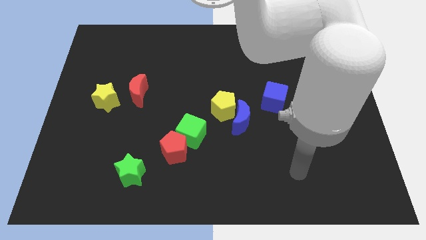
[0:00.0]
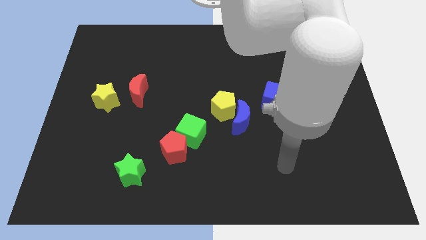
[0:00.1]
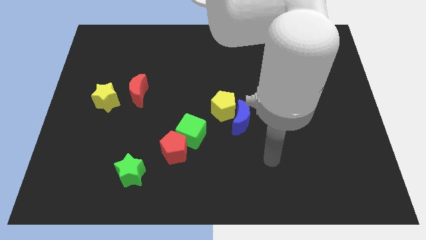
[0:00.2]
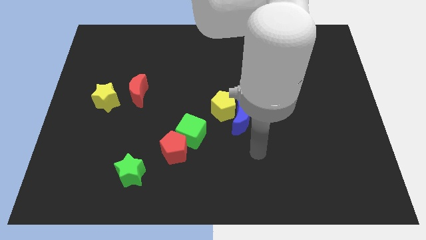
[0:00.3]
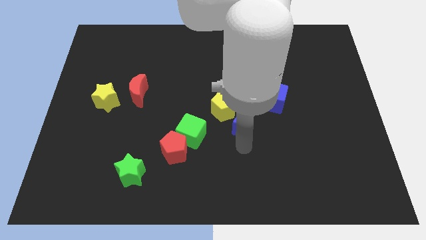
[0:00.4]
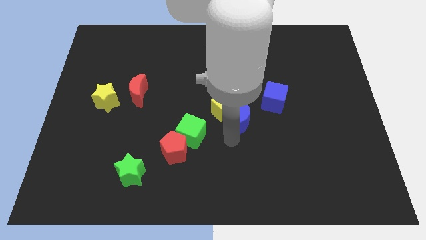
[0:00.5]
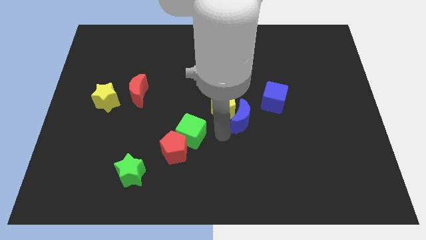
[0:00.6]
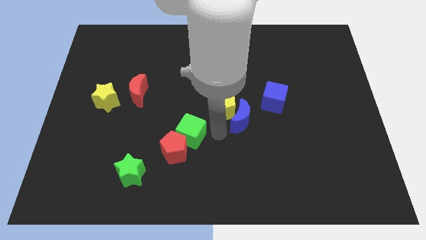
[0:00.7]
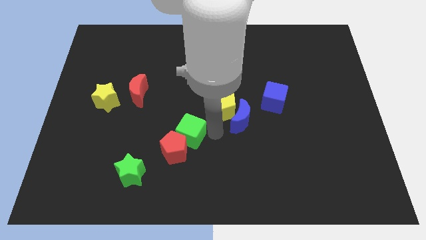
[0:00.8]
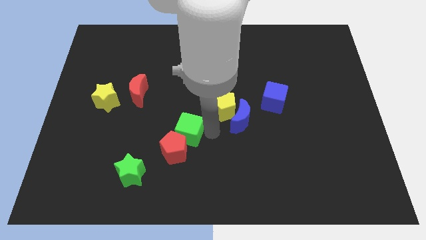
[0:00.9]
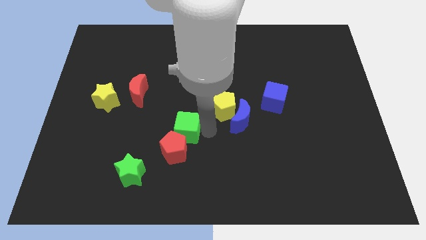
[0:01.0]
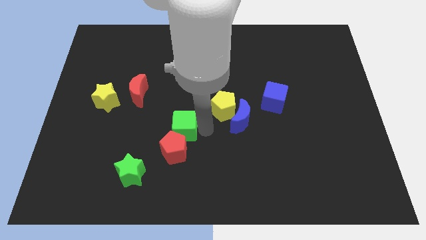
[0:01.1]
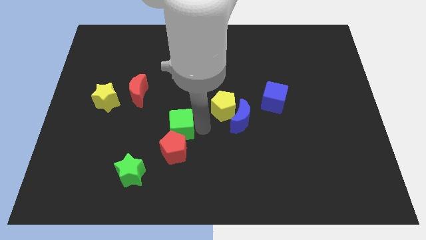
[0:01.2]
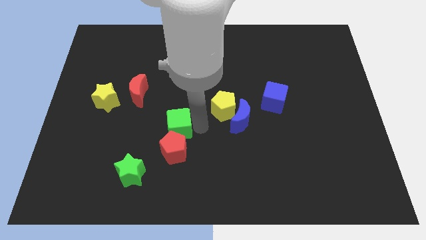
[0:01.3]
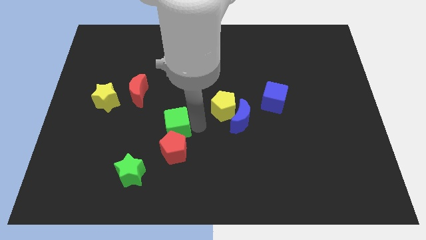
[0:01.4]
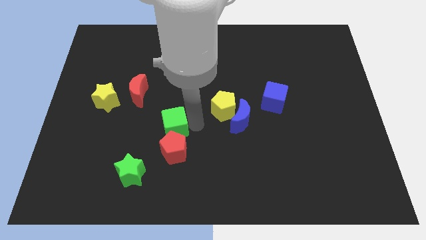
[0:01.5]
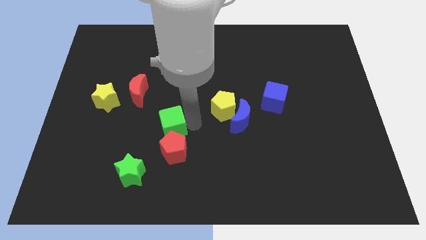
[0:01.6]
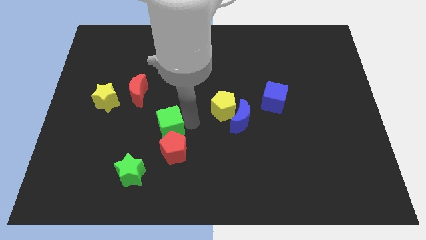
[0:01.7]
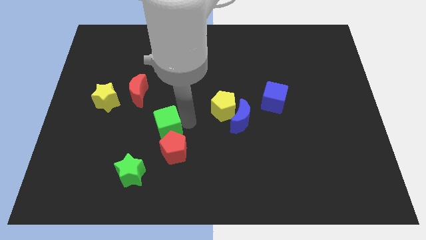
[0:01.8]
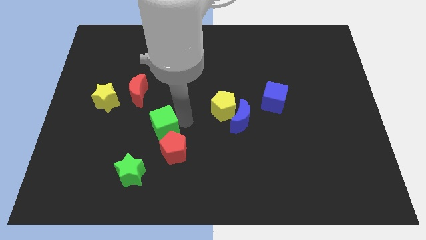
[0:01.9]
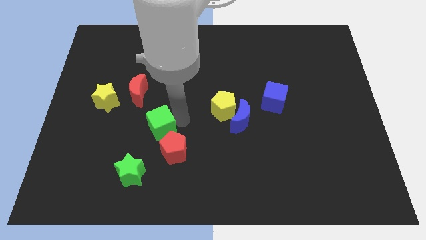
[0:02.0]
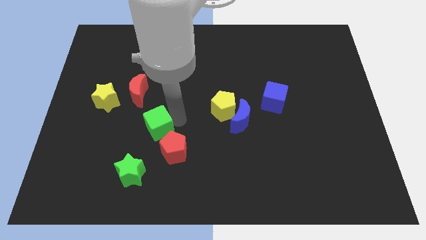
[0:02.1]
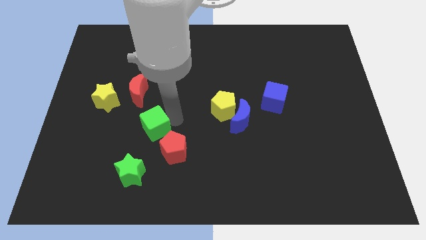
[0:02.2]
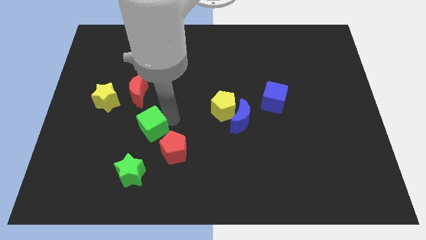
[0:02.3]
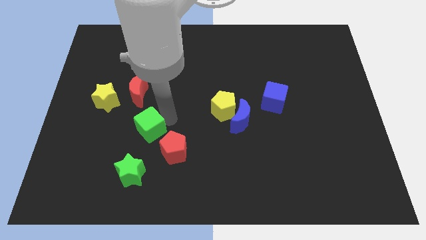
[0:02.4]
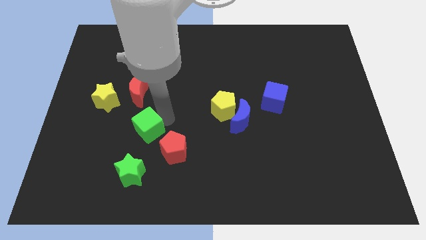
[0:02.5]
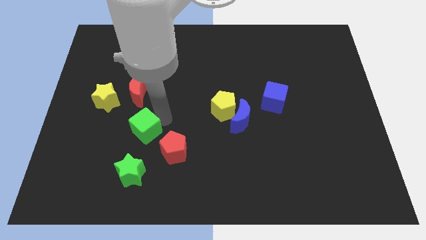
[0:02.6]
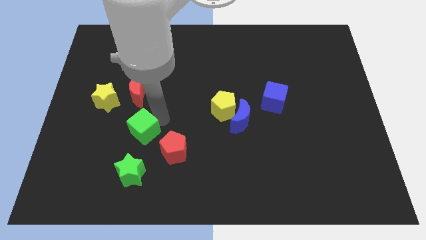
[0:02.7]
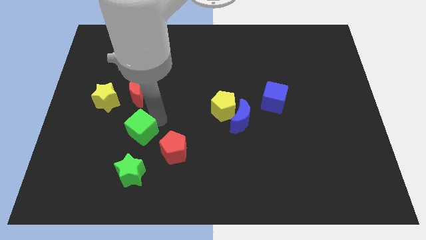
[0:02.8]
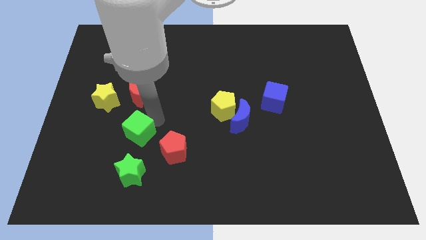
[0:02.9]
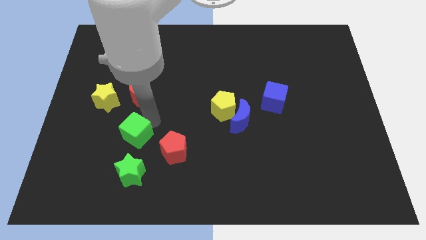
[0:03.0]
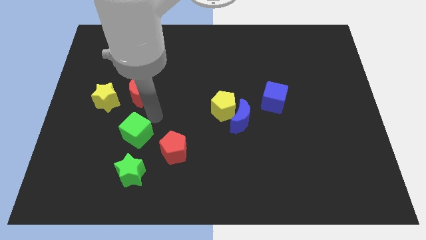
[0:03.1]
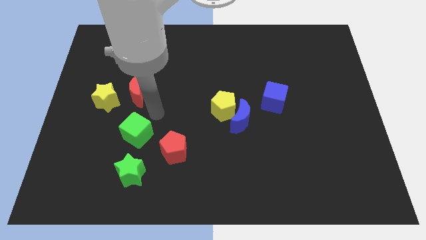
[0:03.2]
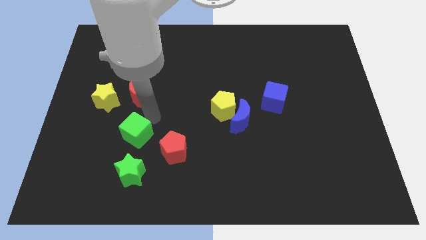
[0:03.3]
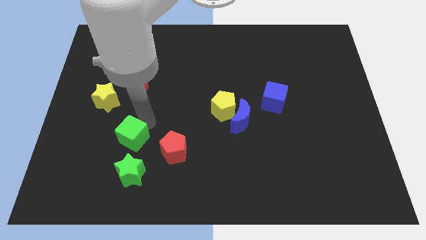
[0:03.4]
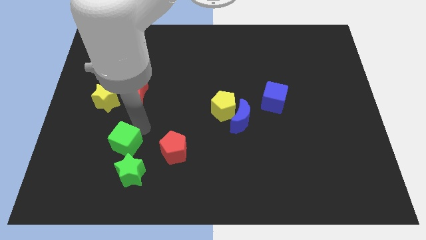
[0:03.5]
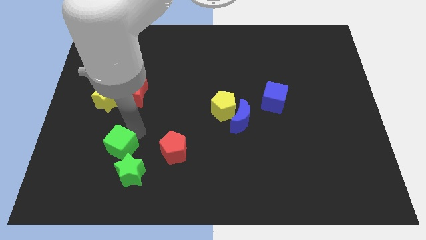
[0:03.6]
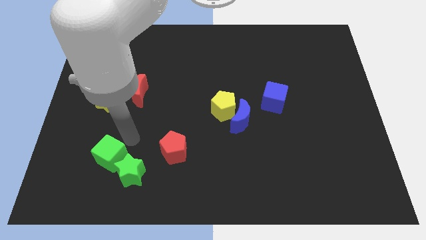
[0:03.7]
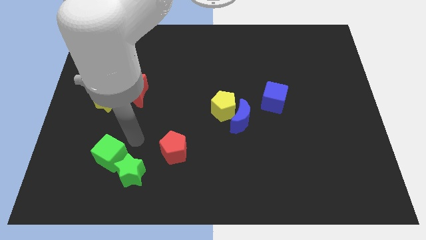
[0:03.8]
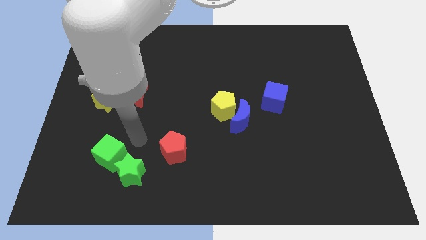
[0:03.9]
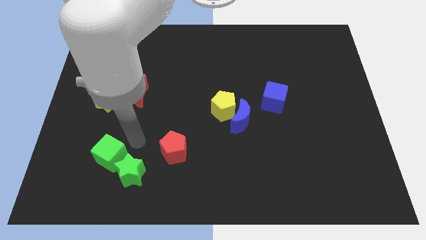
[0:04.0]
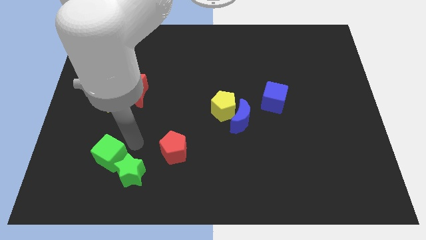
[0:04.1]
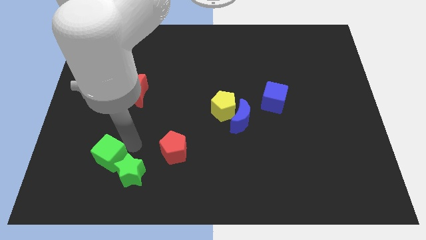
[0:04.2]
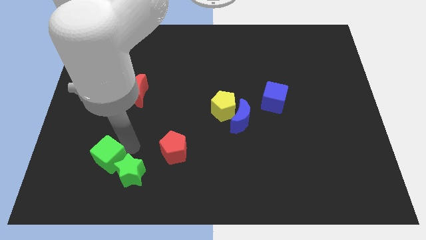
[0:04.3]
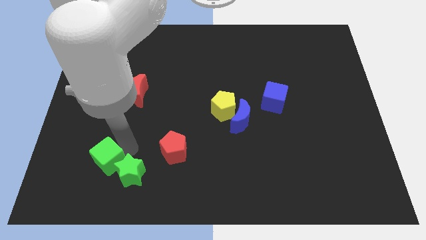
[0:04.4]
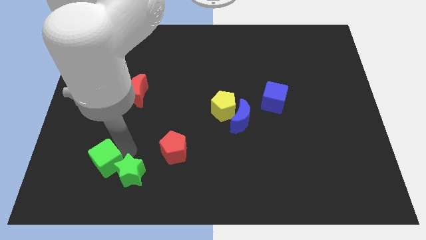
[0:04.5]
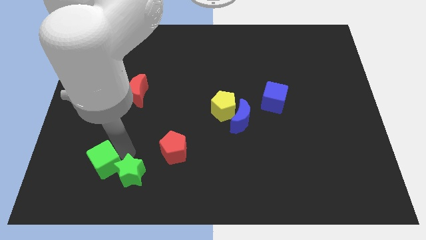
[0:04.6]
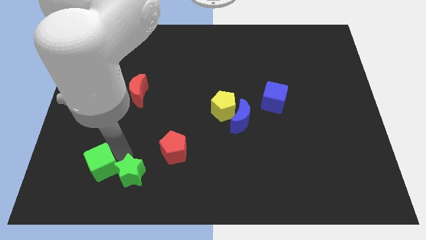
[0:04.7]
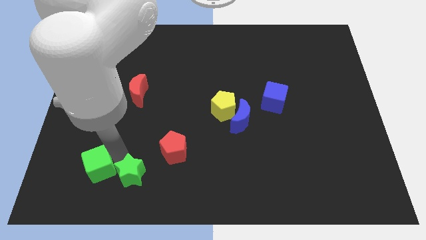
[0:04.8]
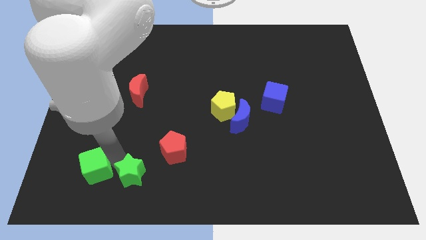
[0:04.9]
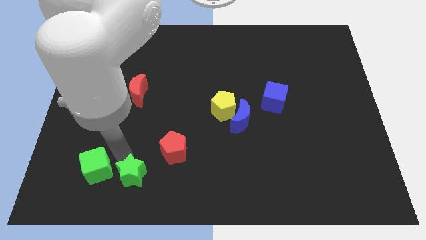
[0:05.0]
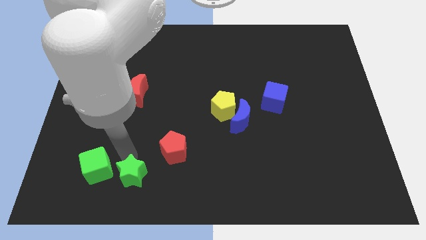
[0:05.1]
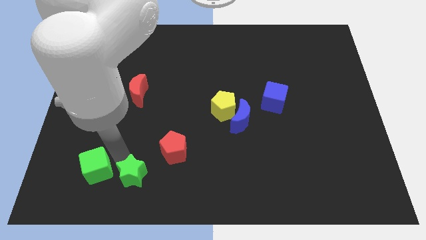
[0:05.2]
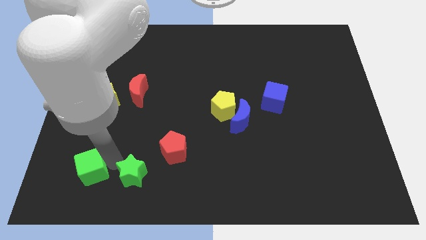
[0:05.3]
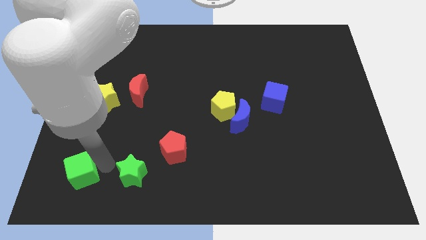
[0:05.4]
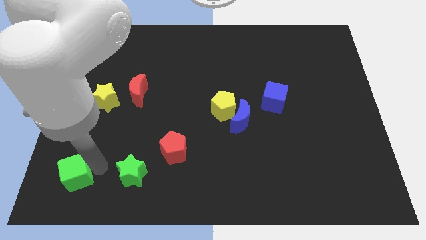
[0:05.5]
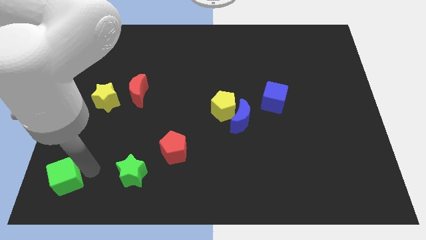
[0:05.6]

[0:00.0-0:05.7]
put the green cube to the lower left corner

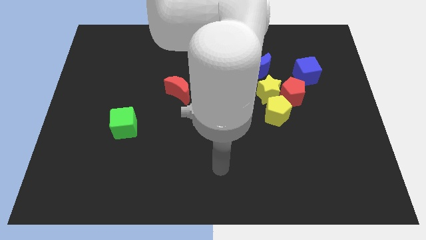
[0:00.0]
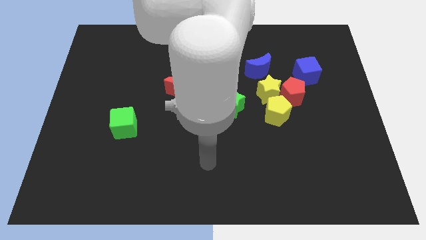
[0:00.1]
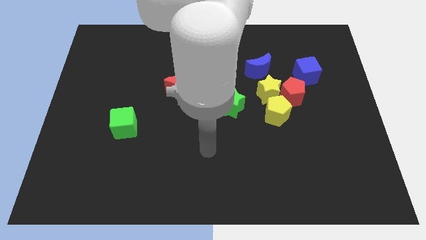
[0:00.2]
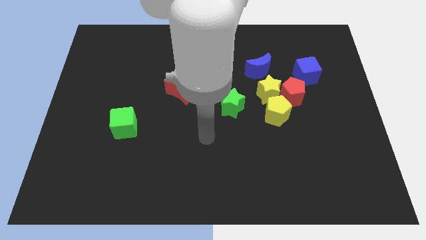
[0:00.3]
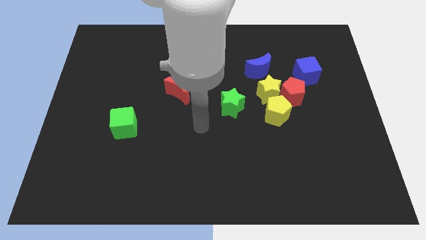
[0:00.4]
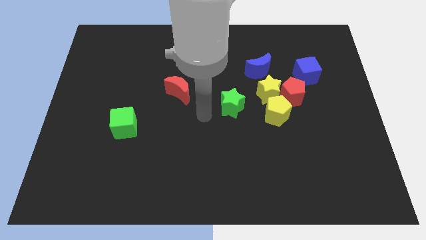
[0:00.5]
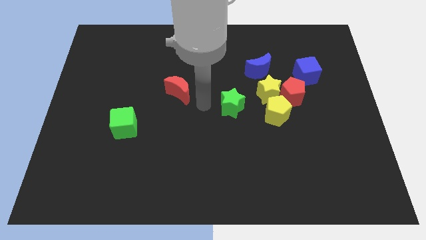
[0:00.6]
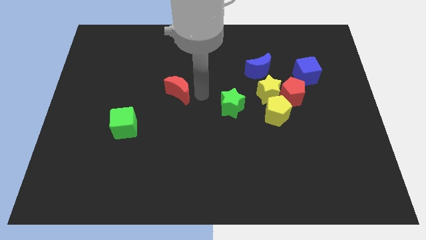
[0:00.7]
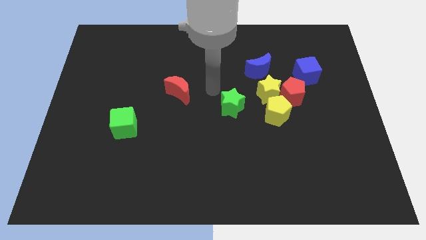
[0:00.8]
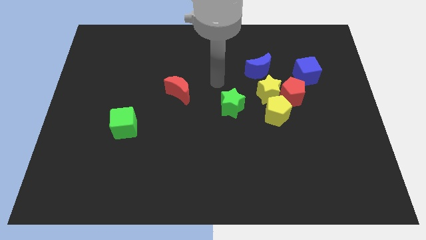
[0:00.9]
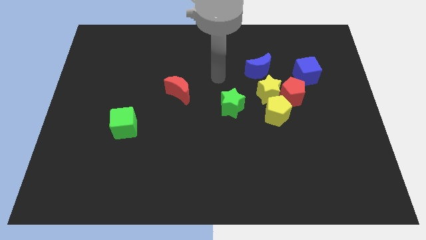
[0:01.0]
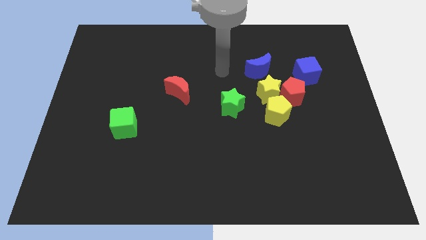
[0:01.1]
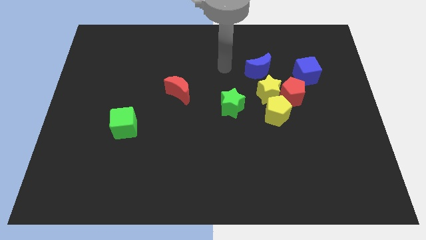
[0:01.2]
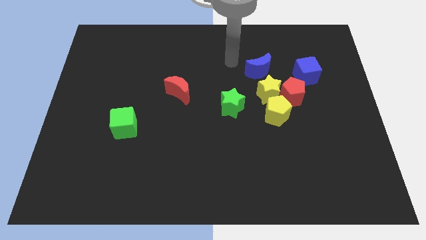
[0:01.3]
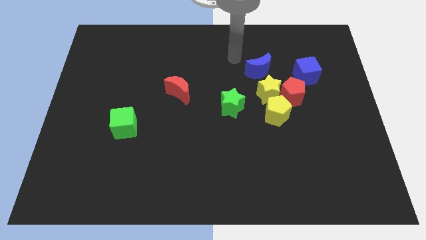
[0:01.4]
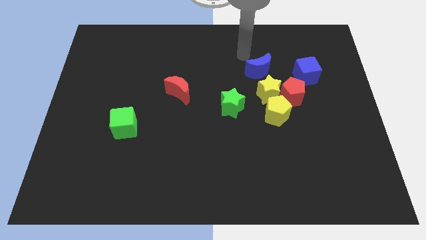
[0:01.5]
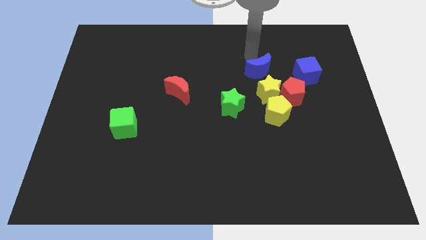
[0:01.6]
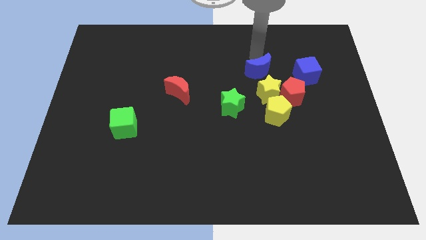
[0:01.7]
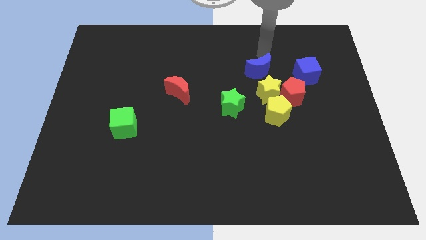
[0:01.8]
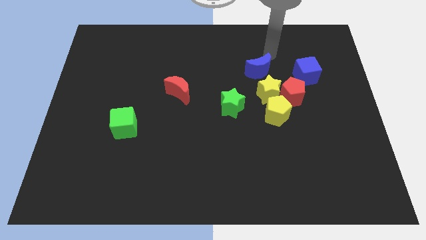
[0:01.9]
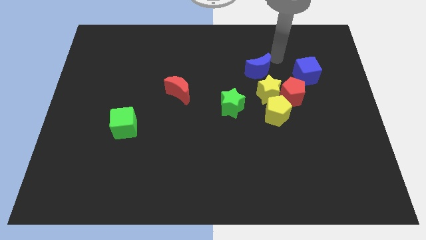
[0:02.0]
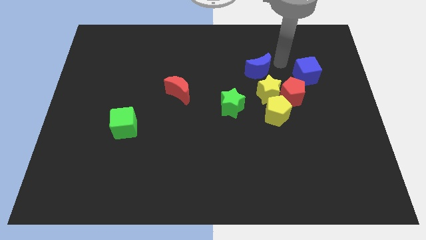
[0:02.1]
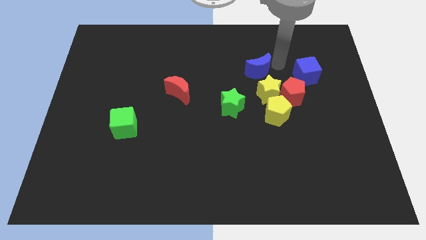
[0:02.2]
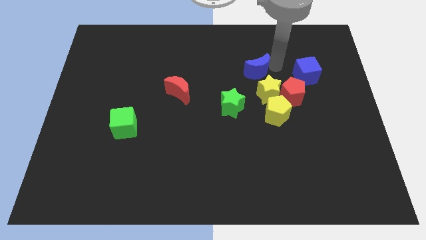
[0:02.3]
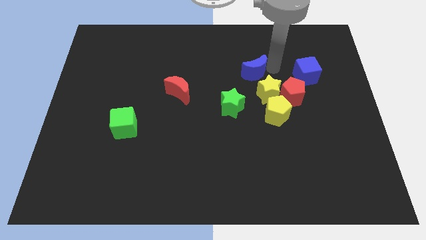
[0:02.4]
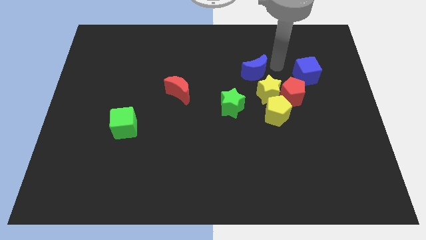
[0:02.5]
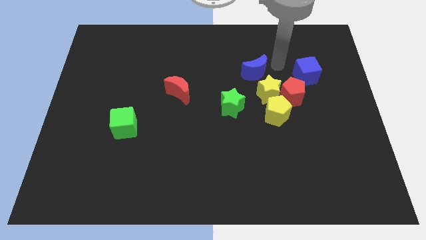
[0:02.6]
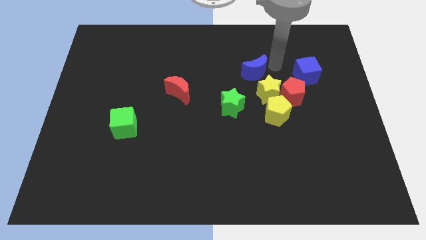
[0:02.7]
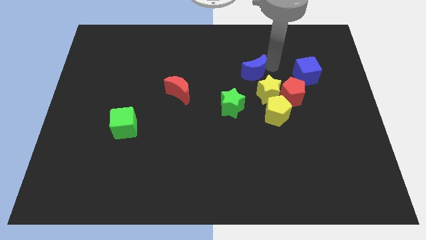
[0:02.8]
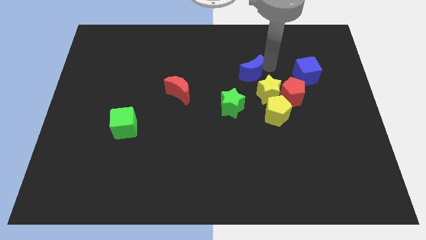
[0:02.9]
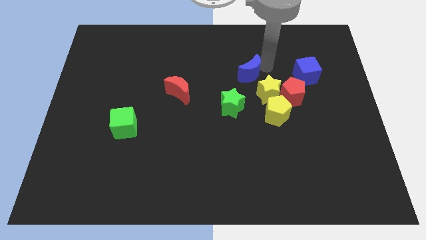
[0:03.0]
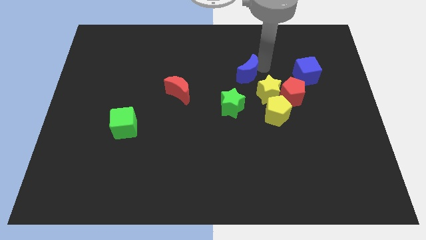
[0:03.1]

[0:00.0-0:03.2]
slide the blue moon to the center of the board
